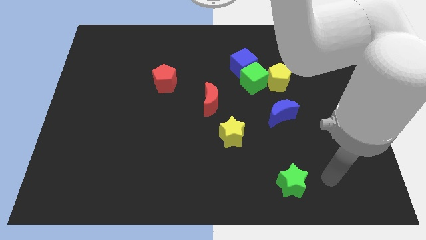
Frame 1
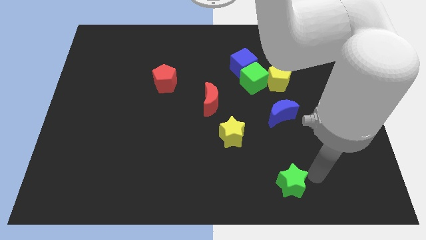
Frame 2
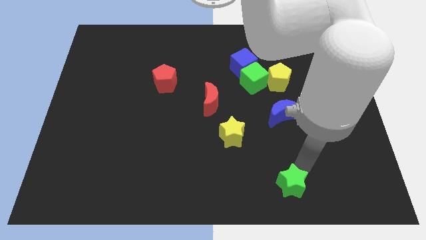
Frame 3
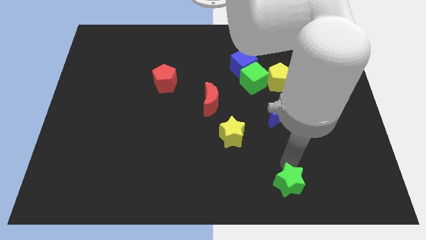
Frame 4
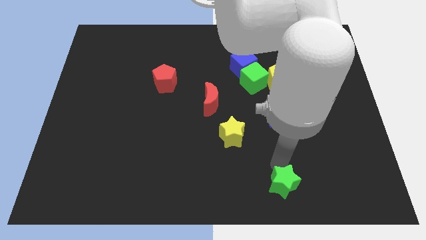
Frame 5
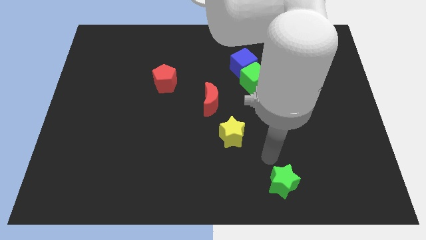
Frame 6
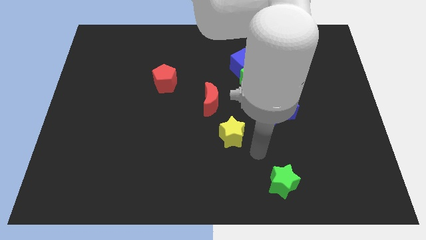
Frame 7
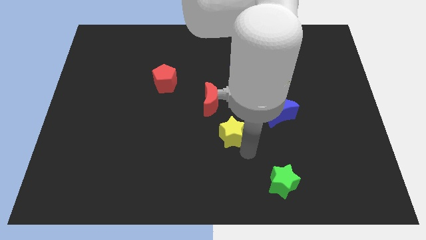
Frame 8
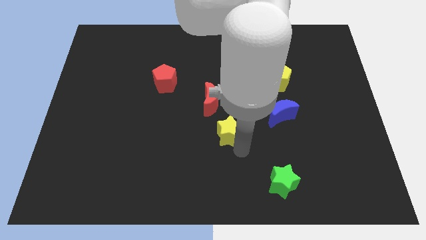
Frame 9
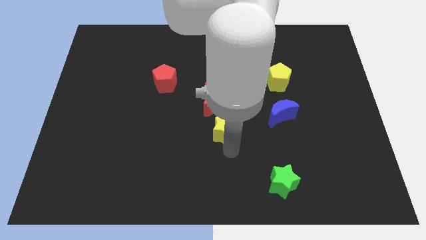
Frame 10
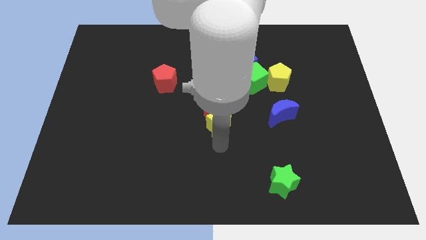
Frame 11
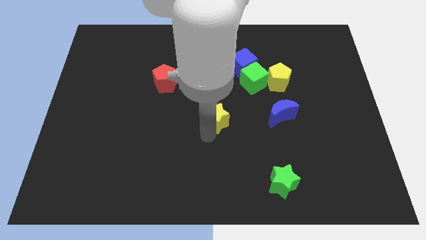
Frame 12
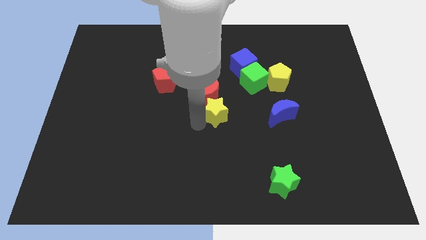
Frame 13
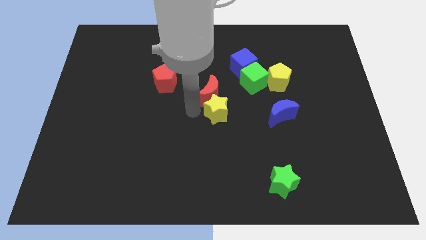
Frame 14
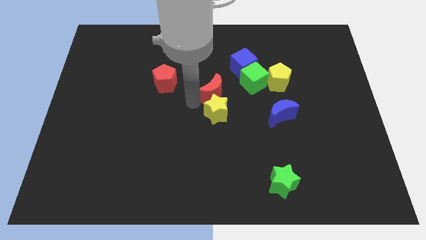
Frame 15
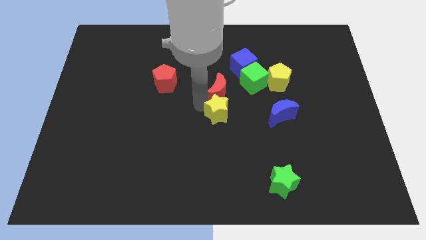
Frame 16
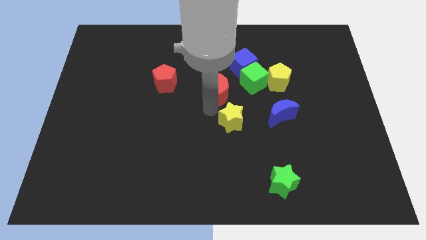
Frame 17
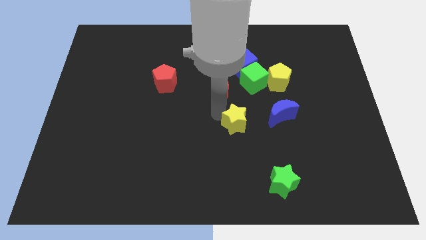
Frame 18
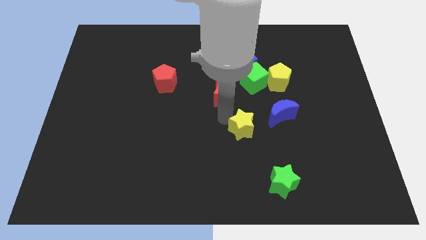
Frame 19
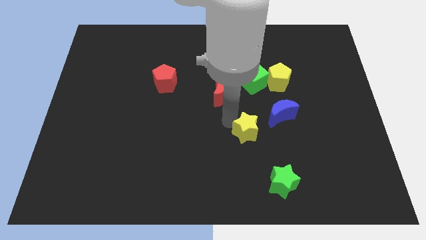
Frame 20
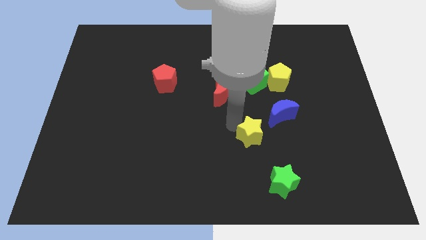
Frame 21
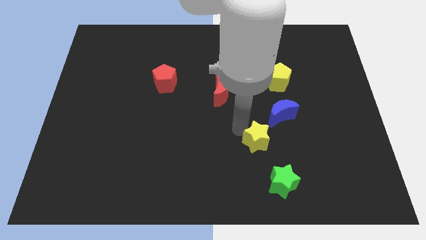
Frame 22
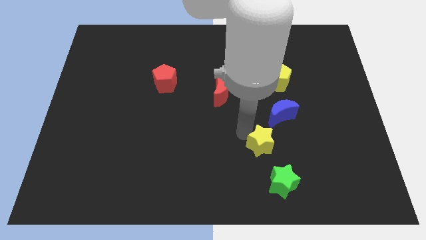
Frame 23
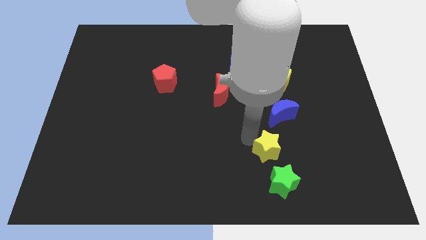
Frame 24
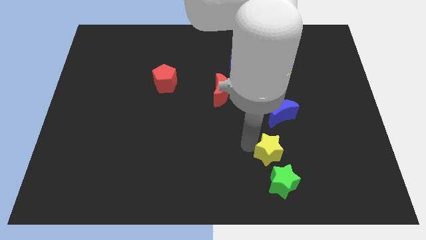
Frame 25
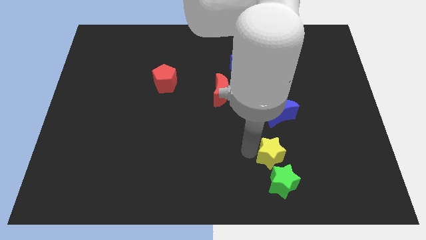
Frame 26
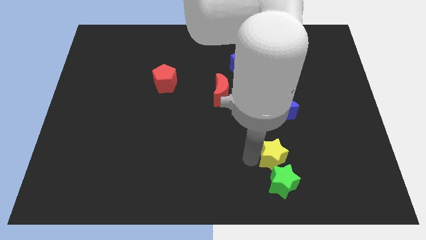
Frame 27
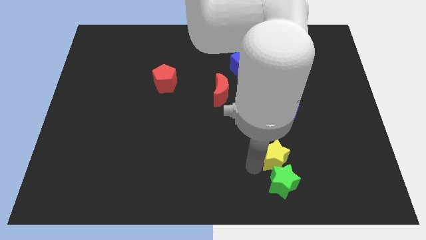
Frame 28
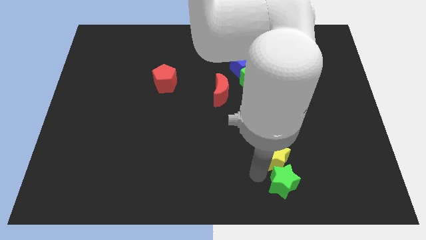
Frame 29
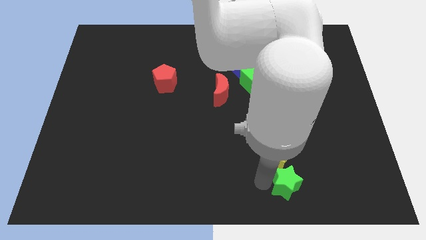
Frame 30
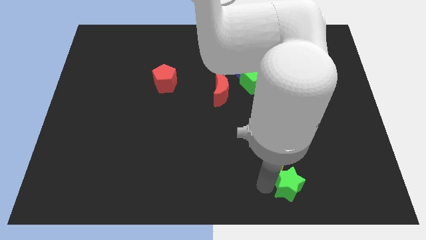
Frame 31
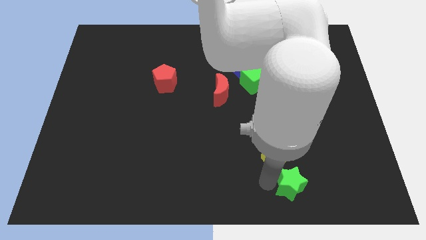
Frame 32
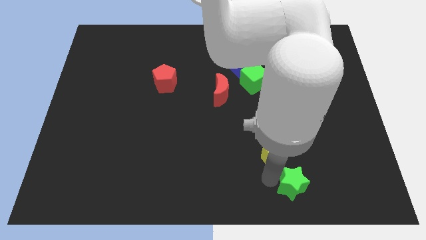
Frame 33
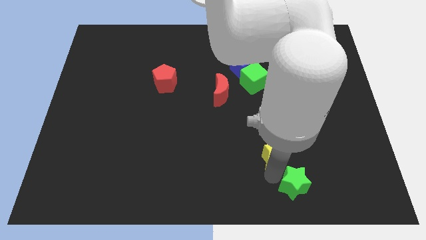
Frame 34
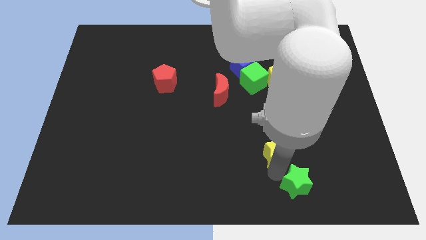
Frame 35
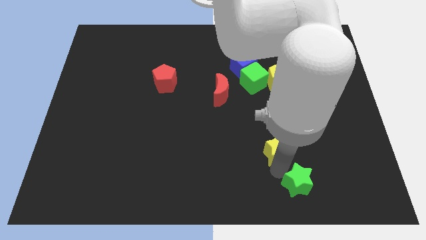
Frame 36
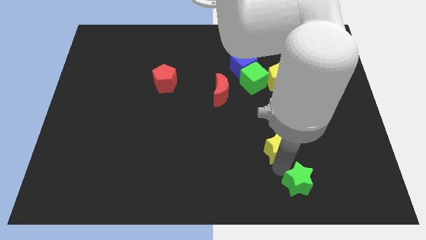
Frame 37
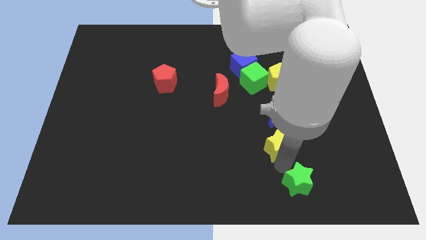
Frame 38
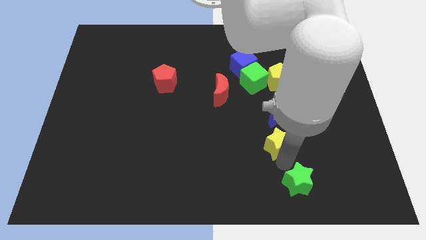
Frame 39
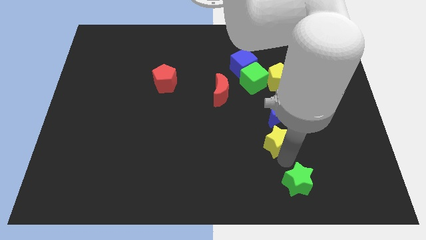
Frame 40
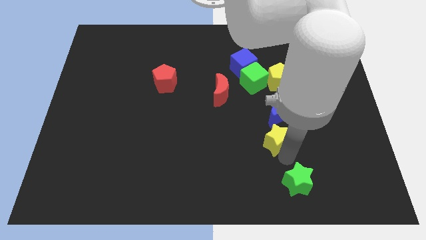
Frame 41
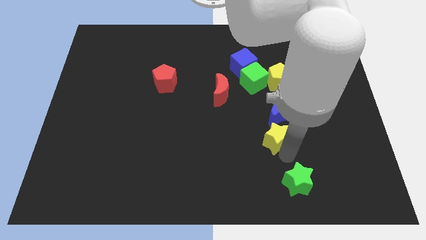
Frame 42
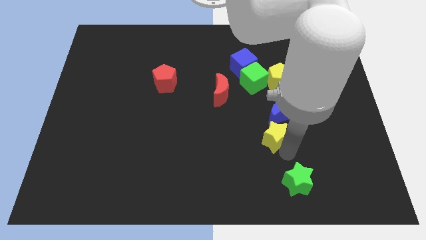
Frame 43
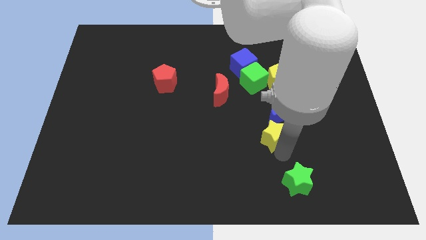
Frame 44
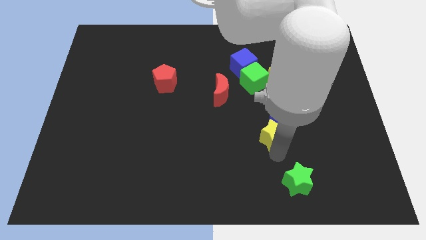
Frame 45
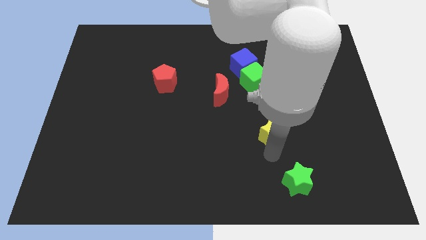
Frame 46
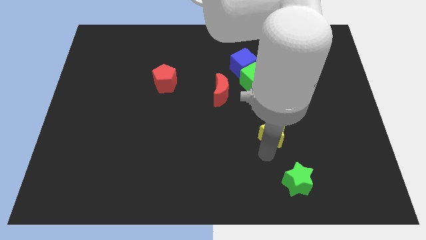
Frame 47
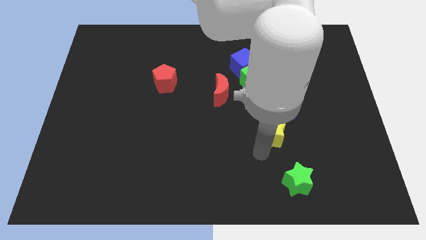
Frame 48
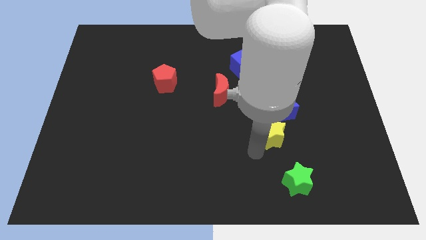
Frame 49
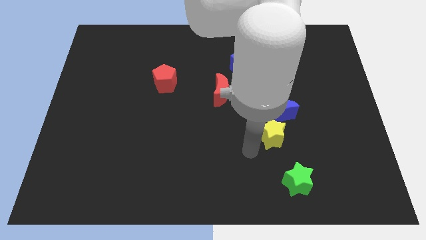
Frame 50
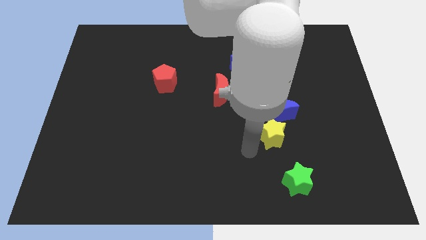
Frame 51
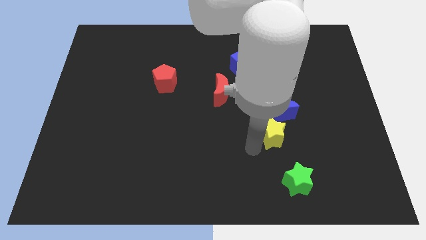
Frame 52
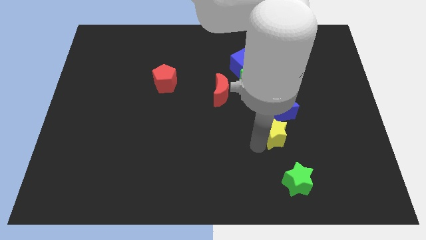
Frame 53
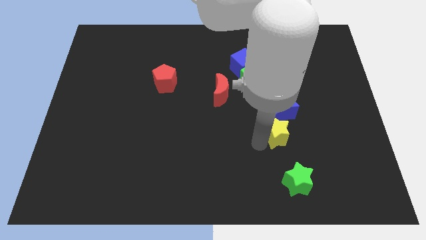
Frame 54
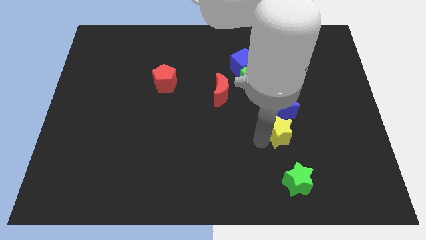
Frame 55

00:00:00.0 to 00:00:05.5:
slide the yellow star to the bottom of the yellow pentagon

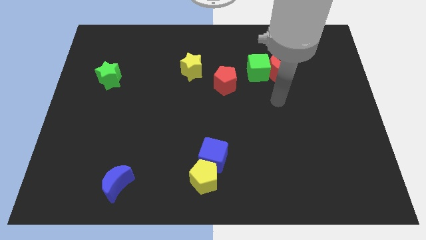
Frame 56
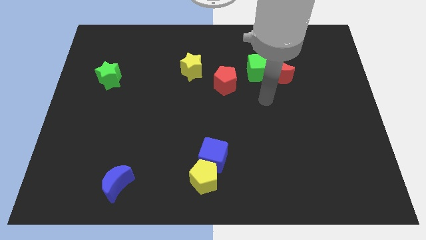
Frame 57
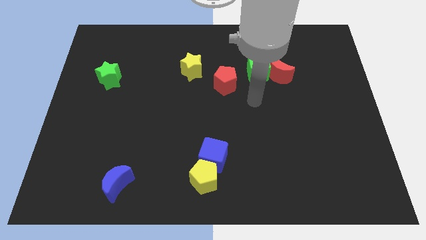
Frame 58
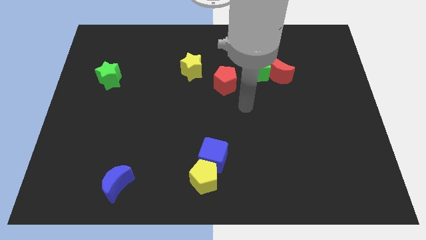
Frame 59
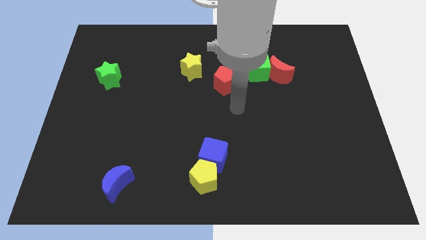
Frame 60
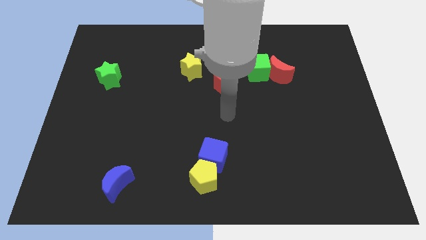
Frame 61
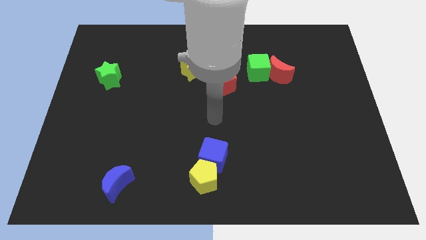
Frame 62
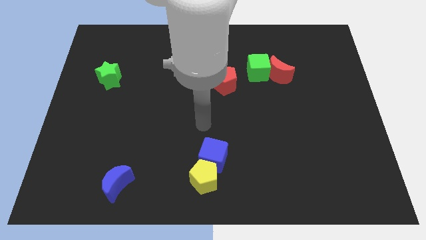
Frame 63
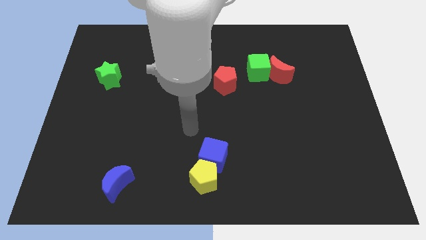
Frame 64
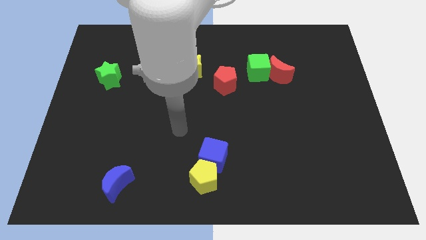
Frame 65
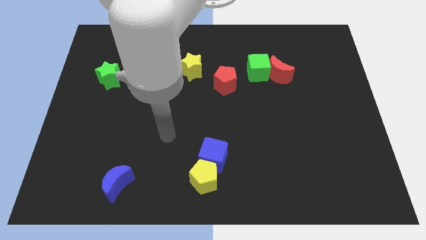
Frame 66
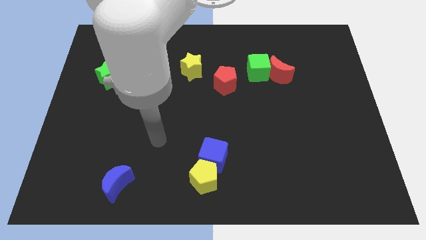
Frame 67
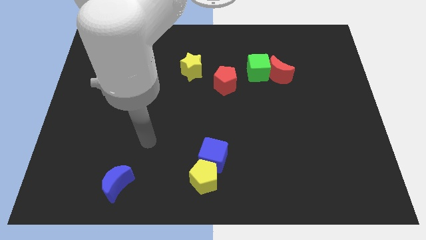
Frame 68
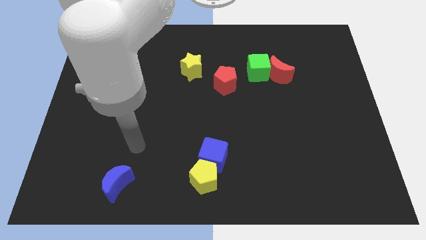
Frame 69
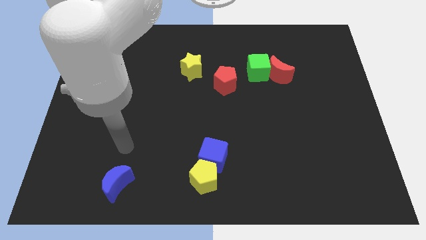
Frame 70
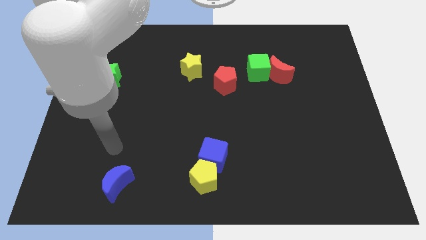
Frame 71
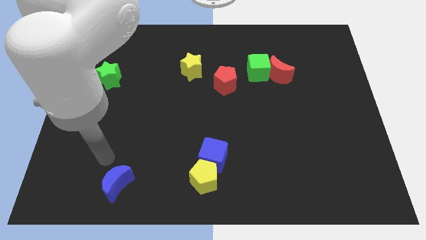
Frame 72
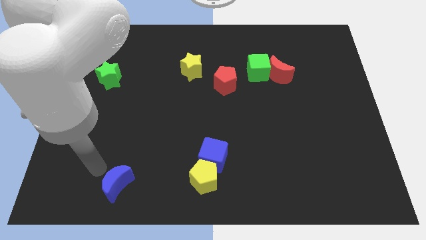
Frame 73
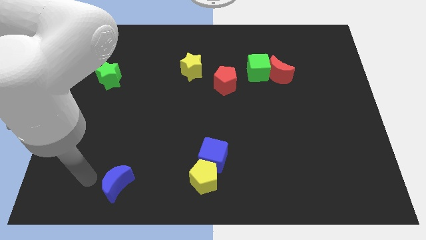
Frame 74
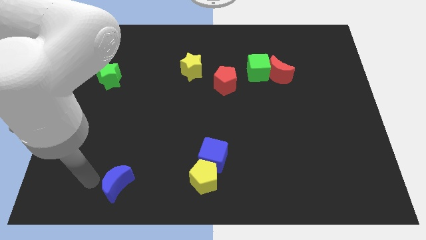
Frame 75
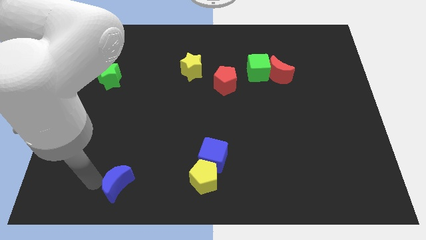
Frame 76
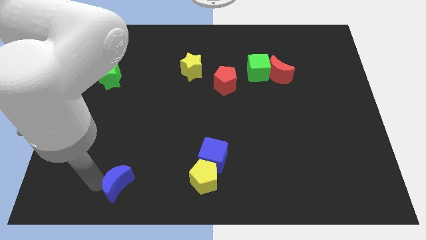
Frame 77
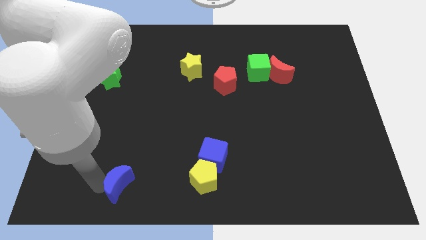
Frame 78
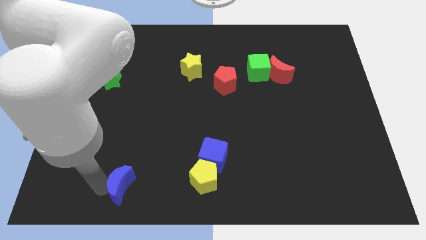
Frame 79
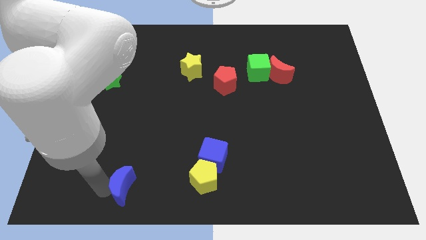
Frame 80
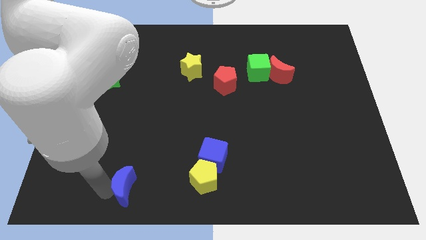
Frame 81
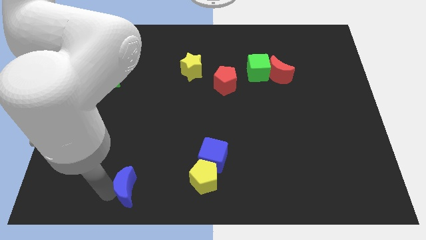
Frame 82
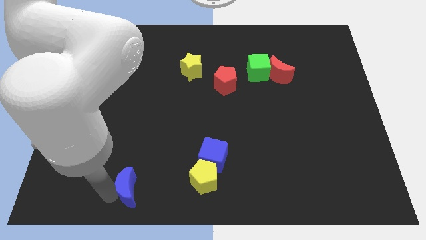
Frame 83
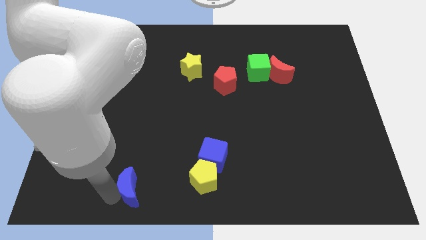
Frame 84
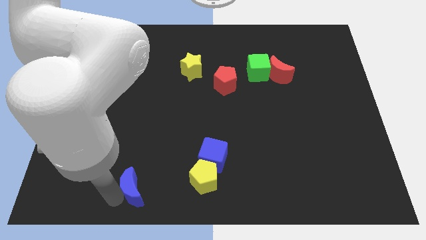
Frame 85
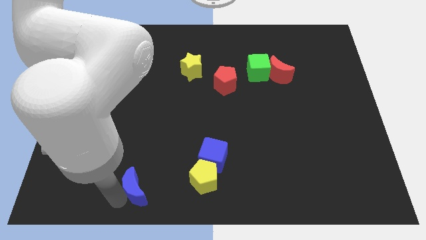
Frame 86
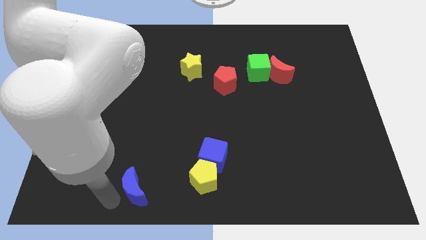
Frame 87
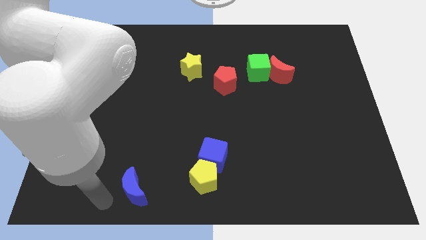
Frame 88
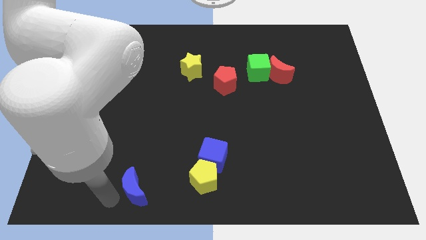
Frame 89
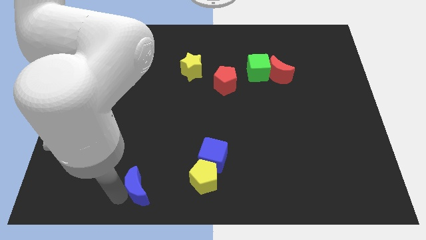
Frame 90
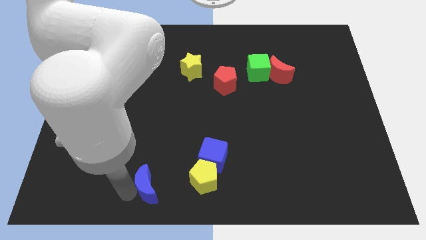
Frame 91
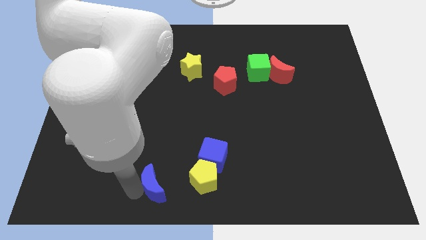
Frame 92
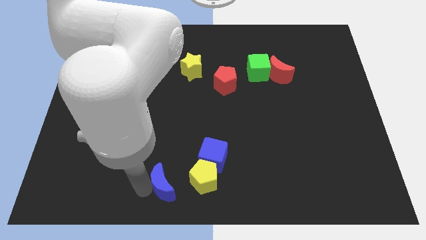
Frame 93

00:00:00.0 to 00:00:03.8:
push the blue moon diagonally down and to the left of the blue cube
